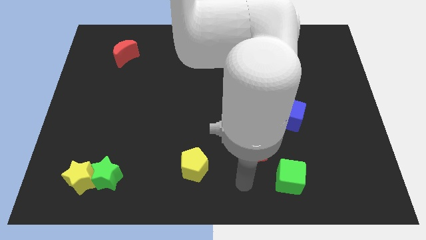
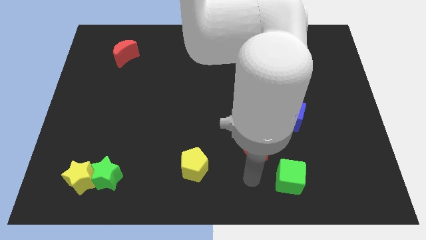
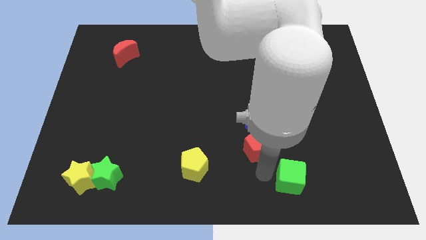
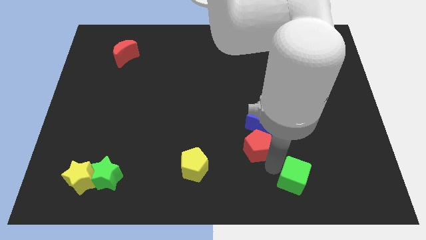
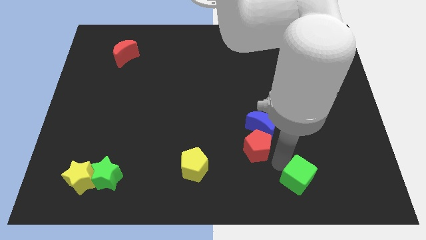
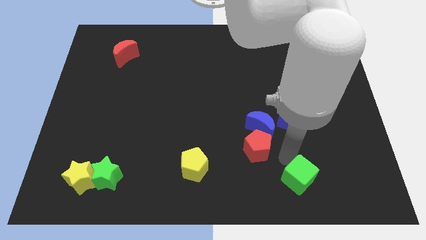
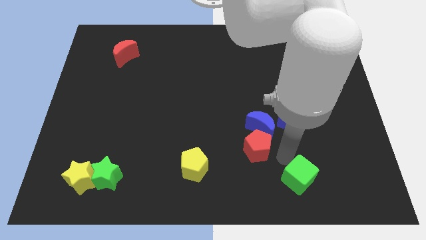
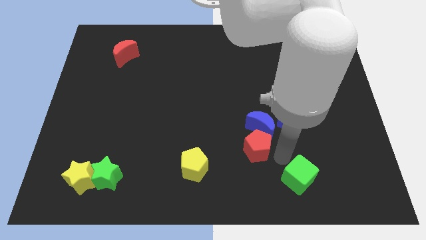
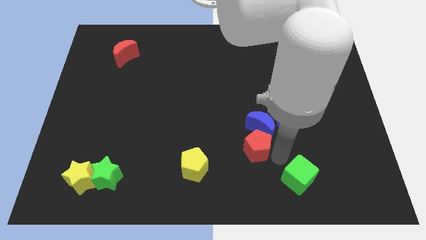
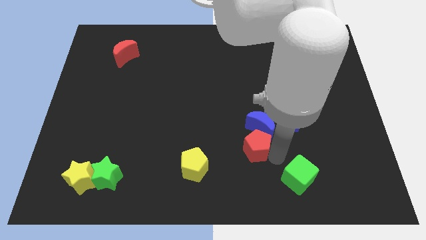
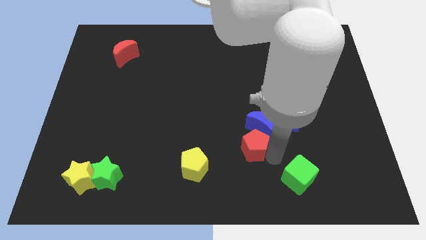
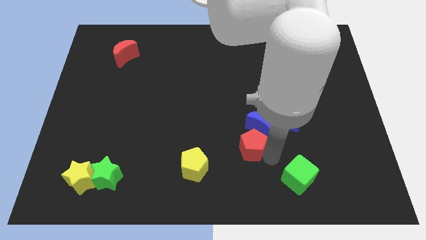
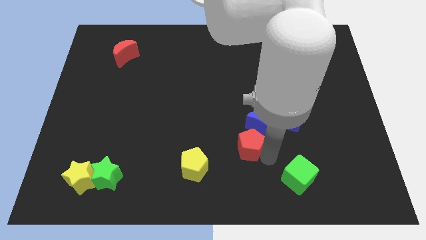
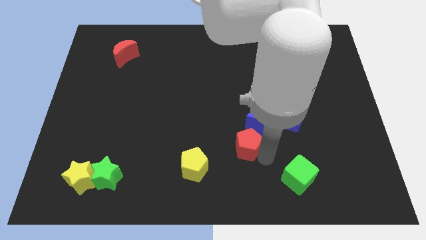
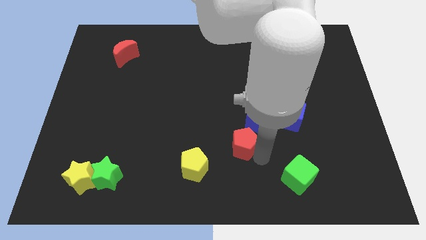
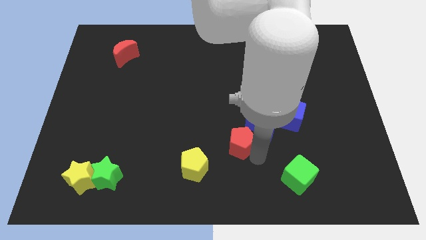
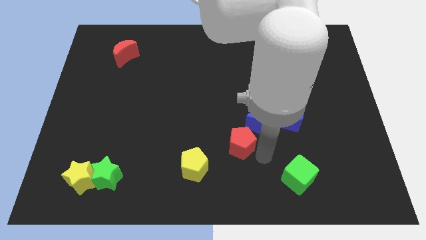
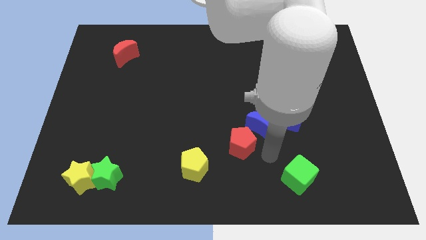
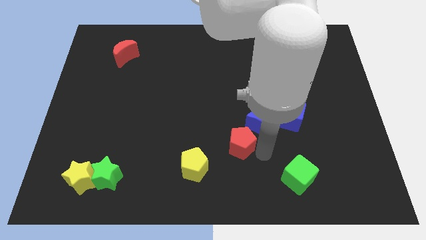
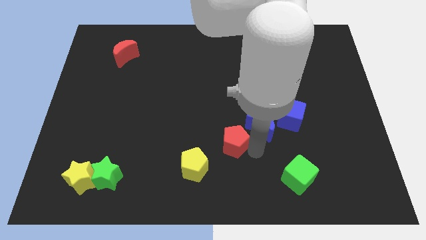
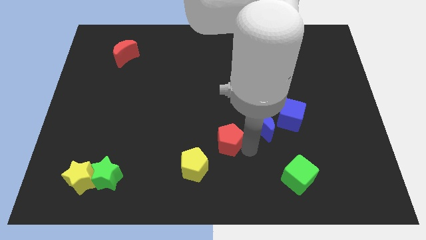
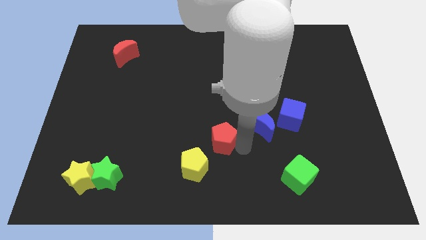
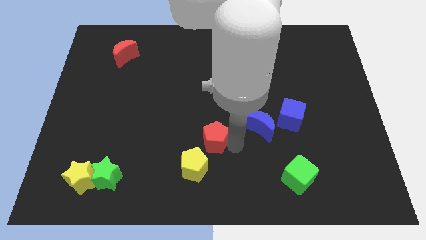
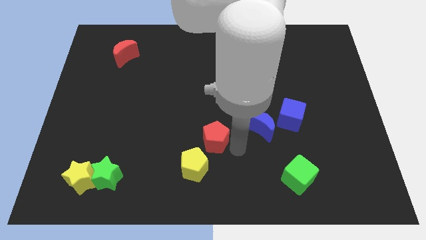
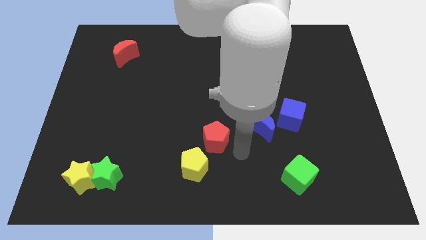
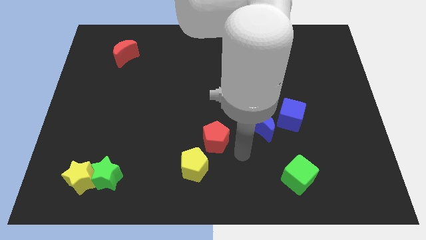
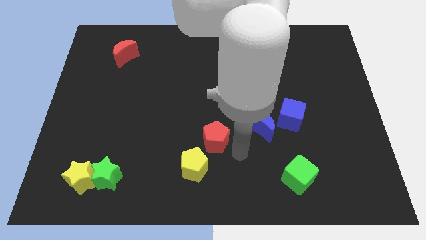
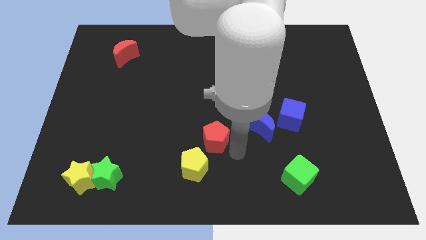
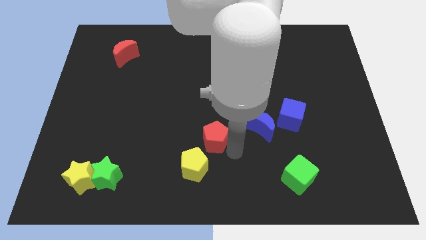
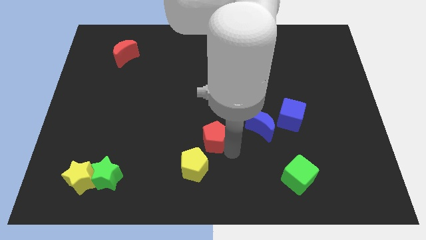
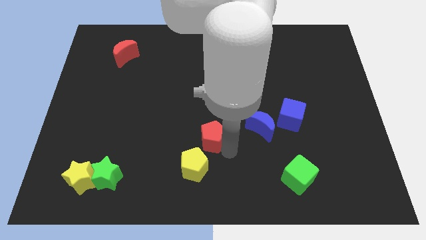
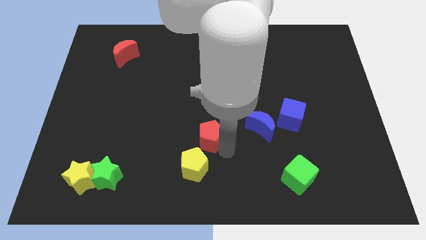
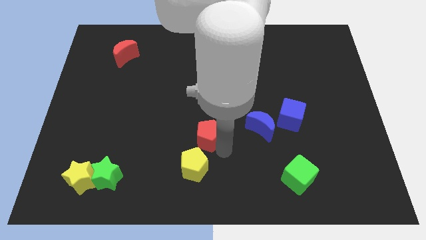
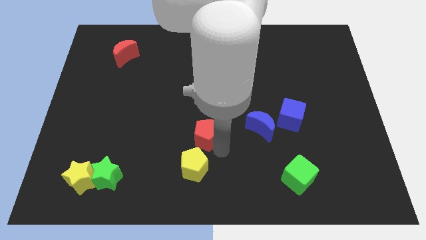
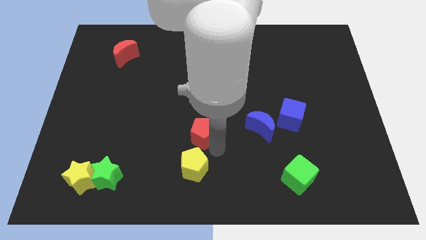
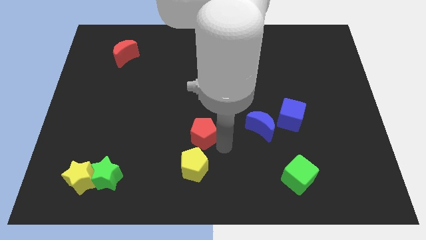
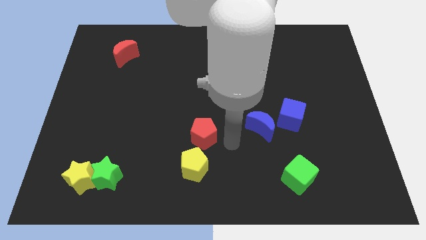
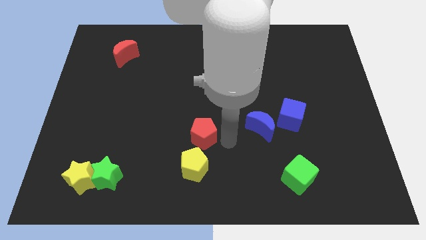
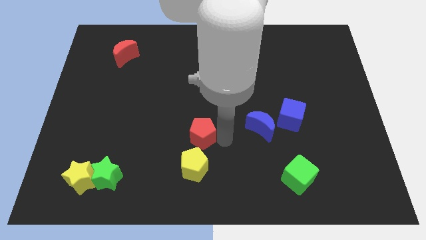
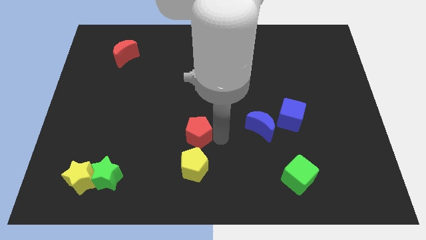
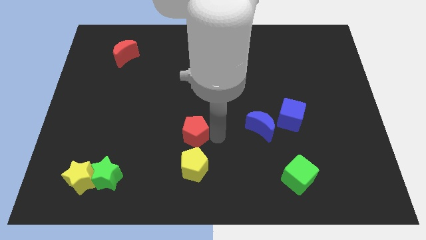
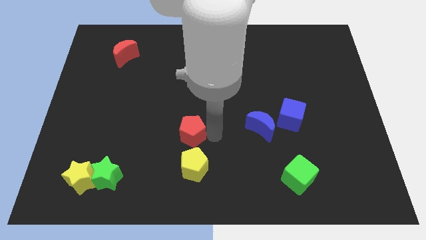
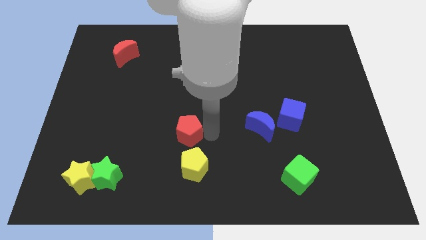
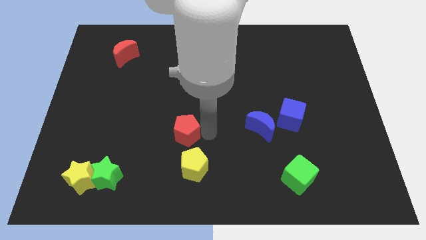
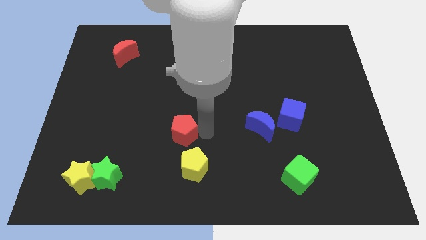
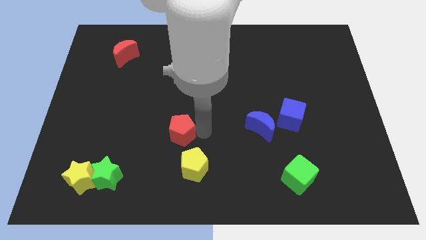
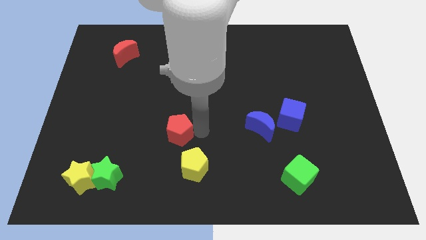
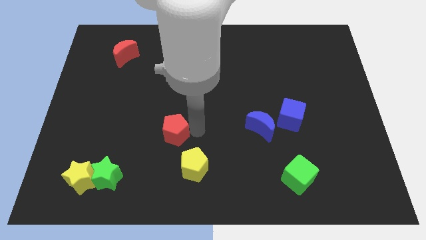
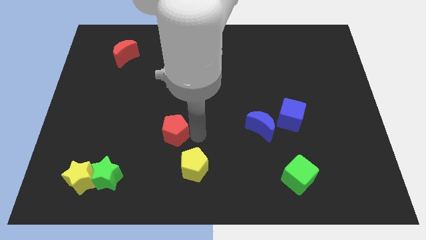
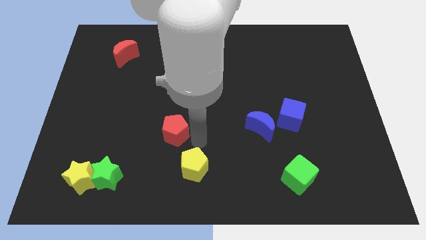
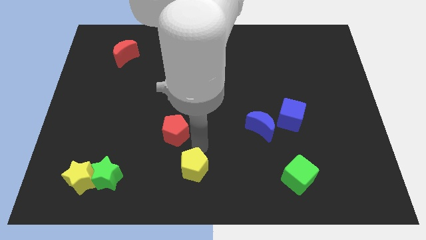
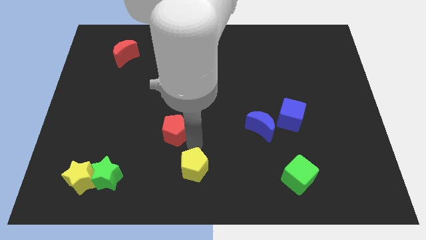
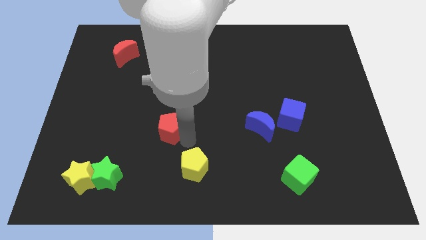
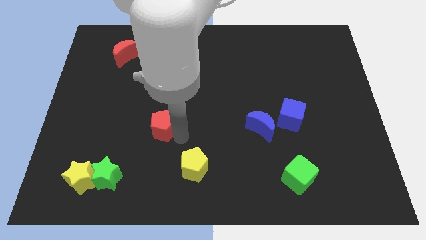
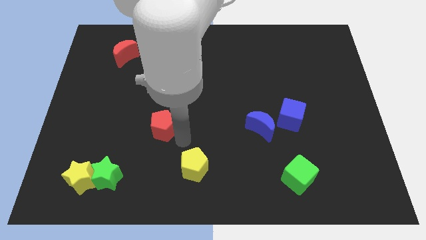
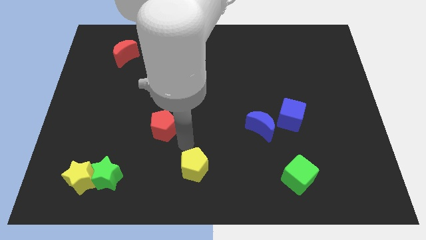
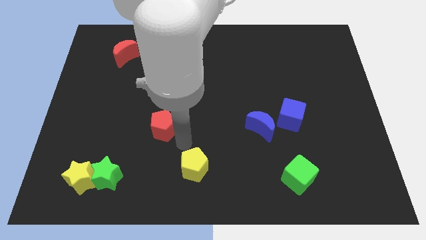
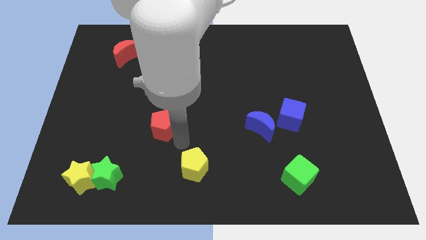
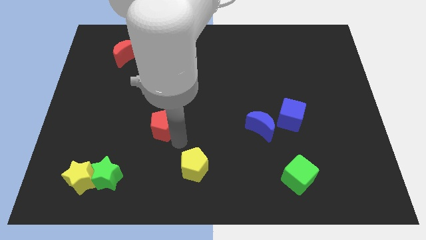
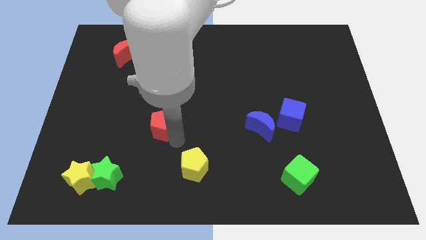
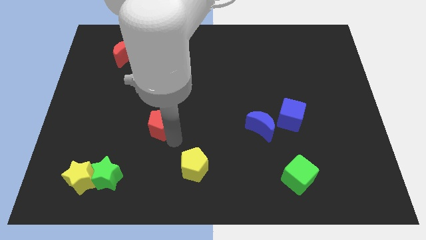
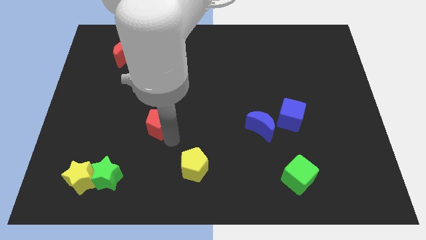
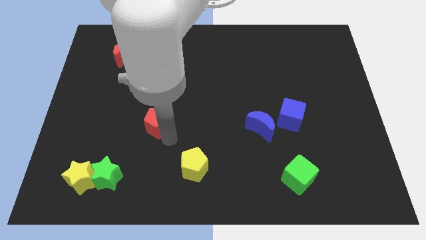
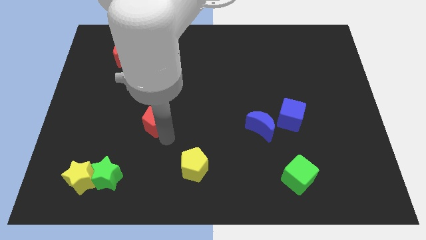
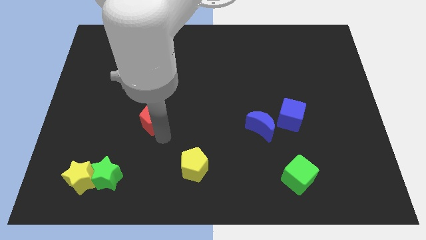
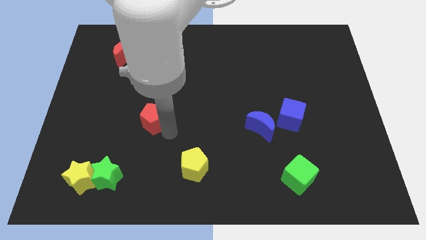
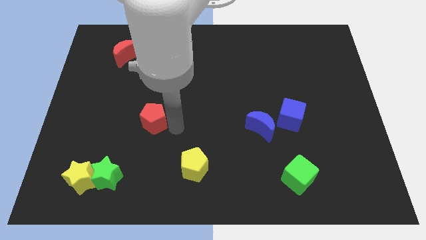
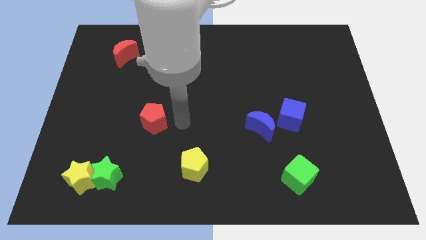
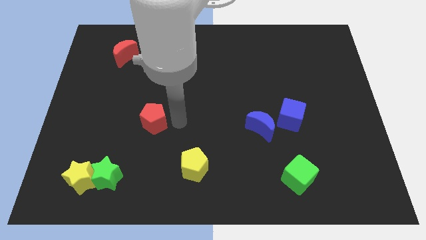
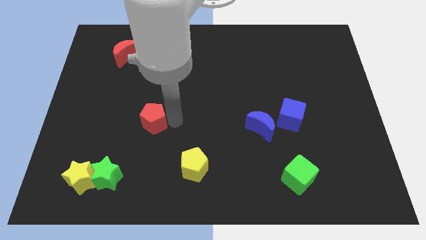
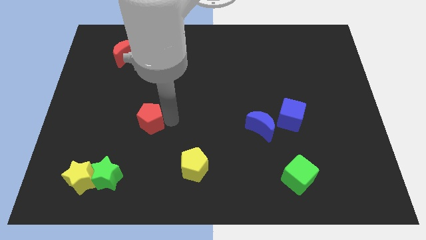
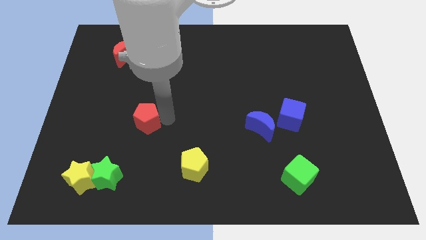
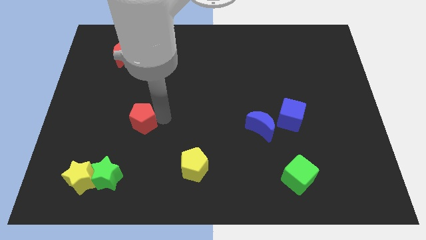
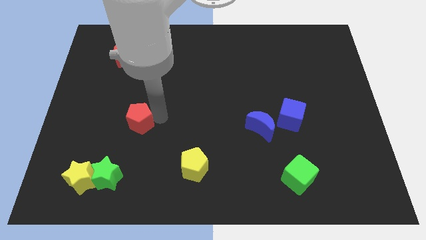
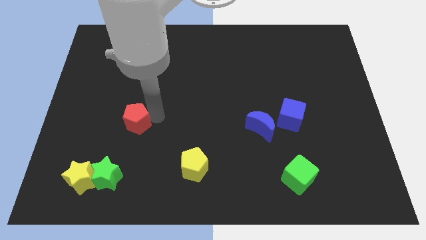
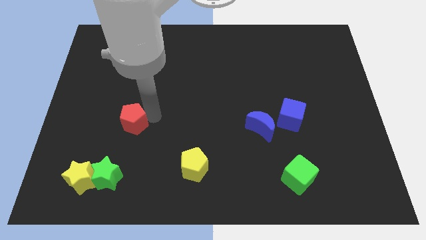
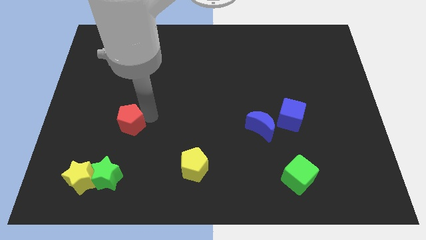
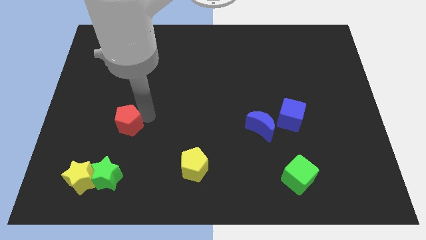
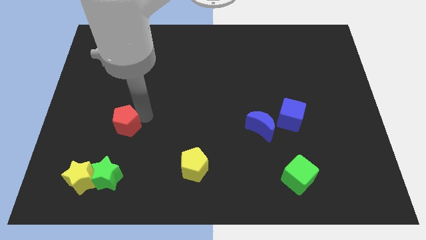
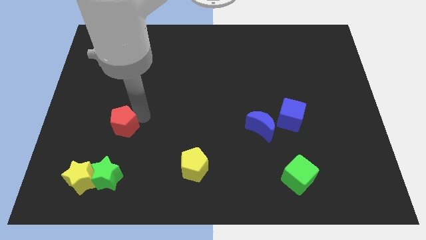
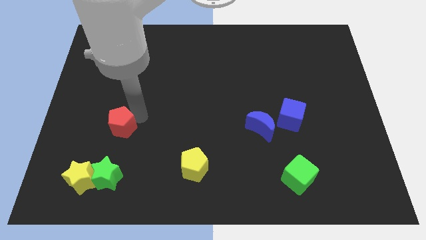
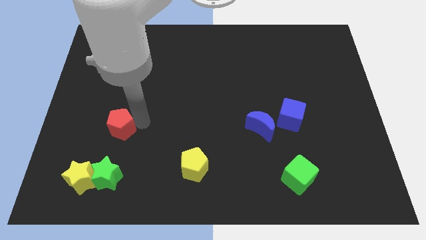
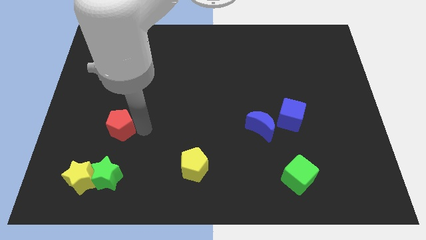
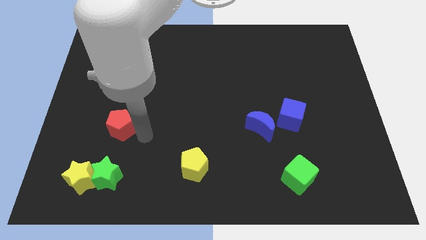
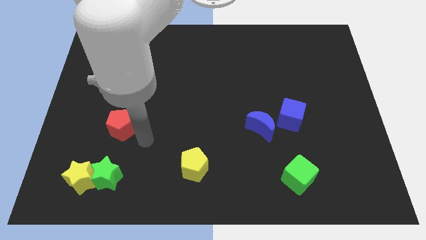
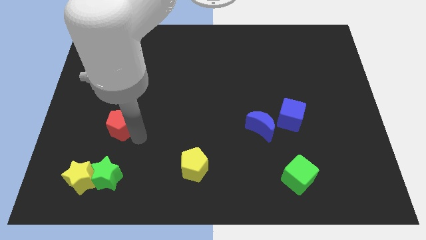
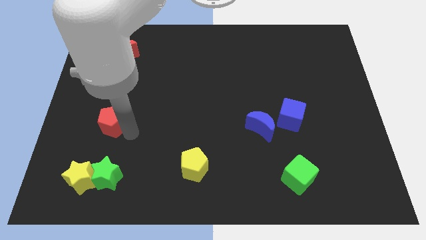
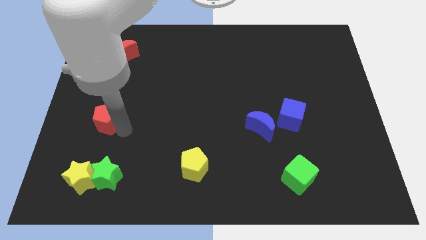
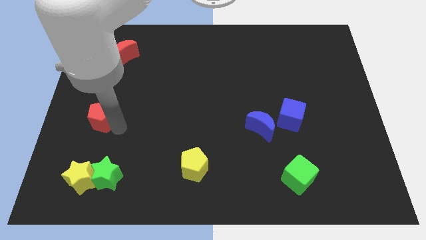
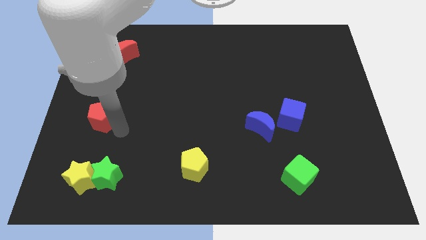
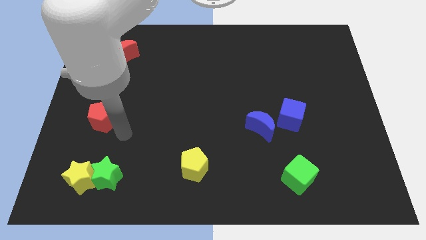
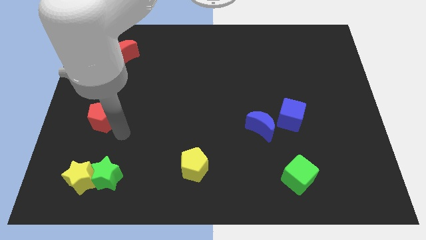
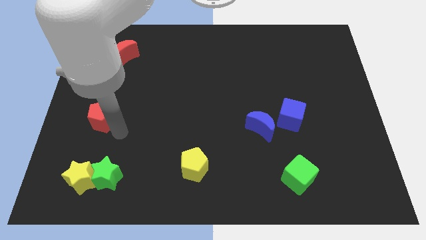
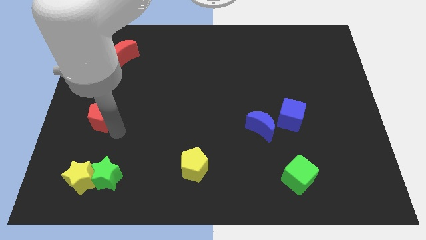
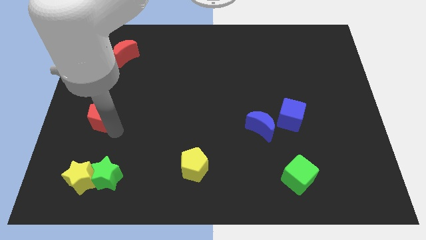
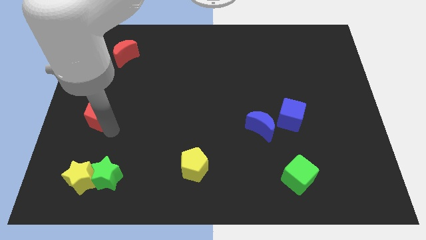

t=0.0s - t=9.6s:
push the red pentagon to the left side
